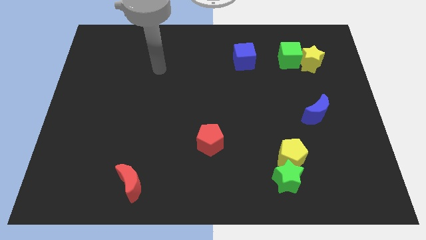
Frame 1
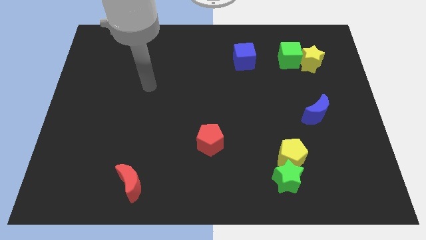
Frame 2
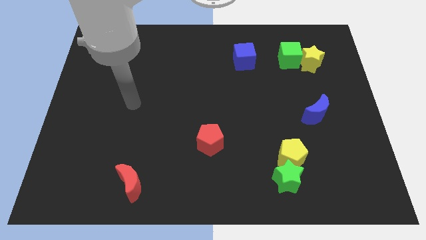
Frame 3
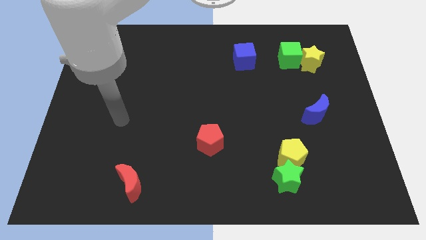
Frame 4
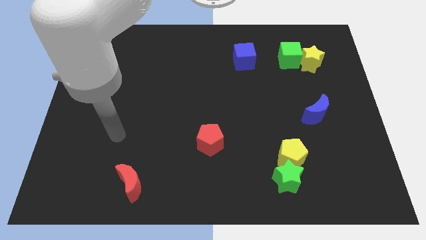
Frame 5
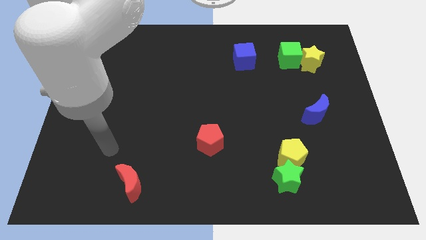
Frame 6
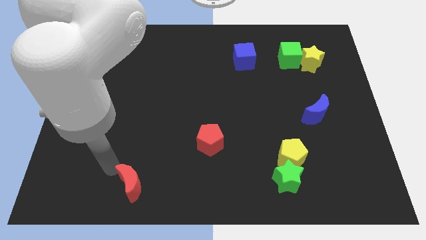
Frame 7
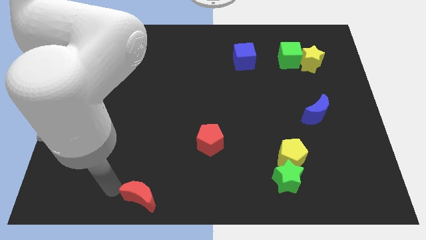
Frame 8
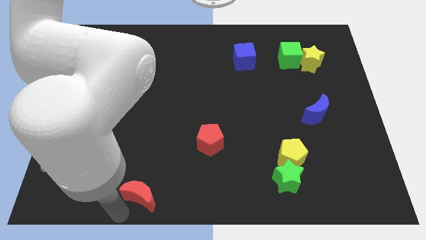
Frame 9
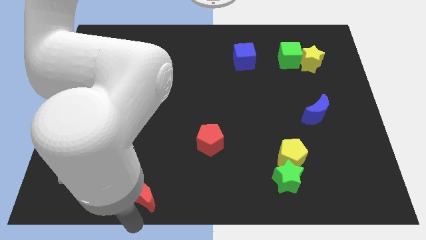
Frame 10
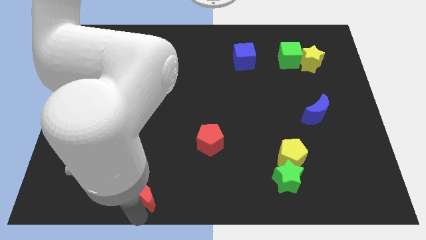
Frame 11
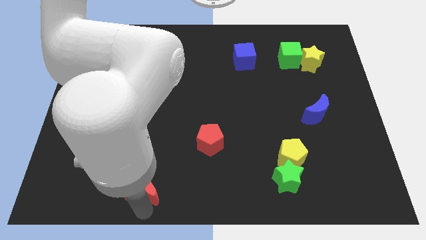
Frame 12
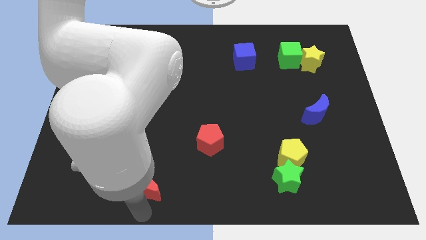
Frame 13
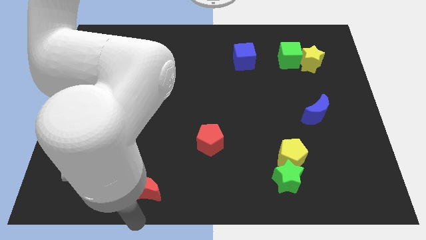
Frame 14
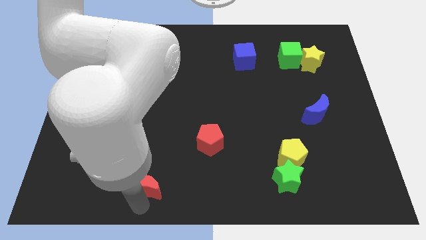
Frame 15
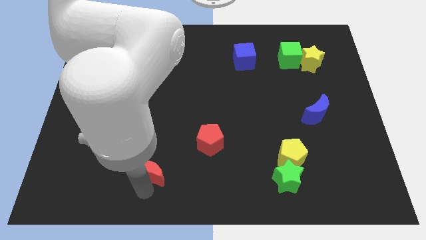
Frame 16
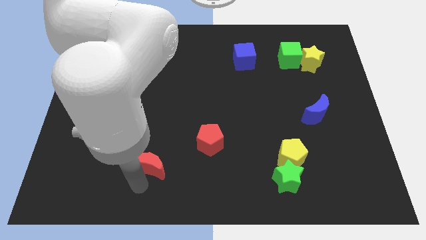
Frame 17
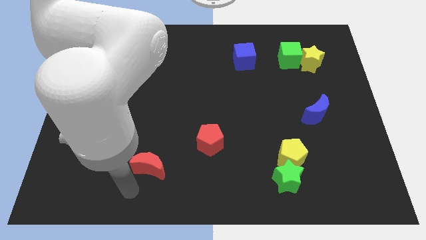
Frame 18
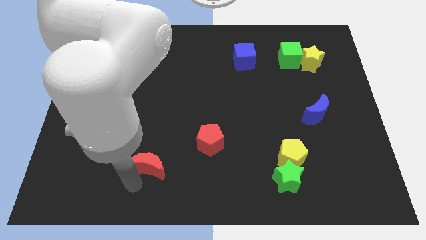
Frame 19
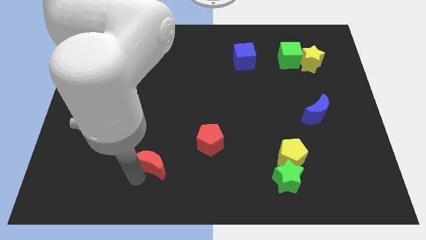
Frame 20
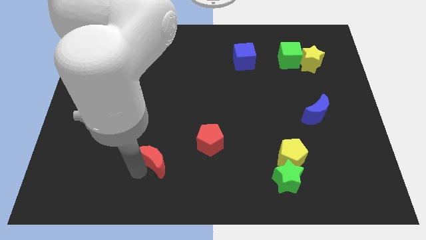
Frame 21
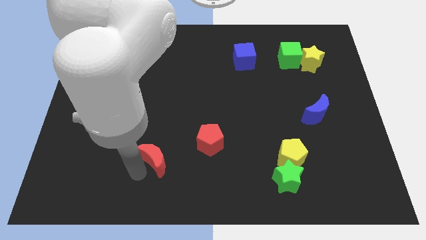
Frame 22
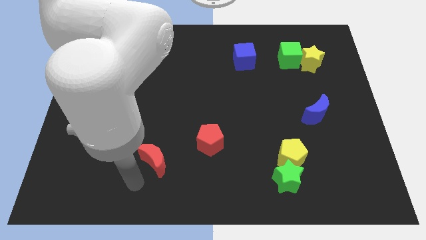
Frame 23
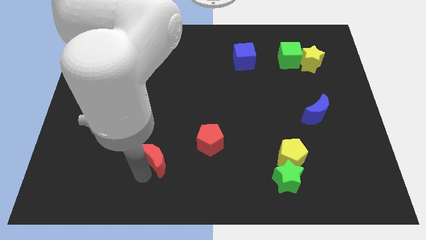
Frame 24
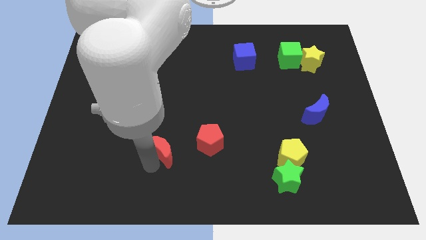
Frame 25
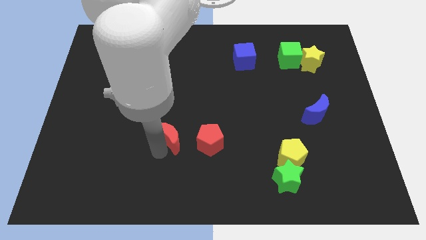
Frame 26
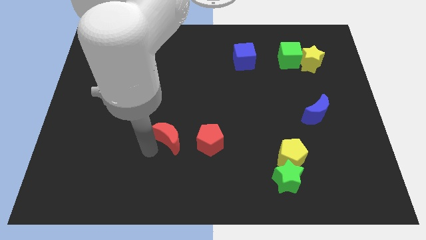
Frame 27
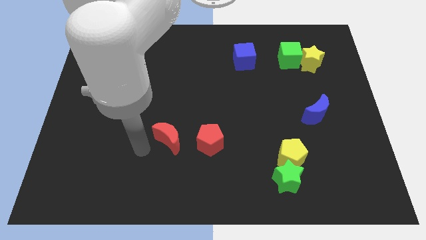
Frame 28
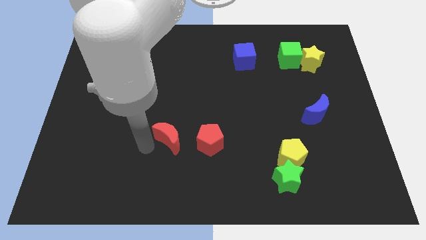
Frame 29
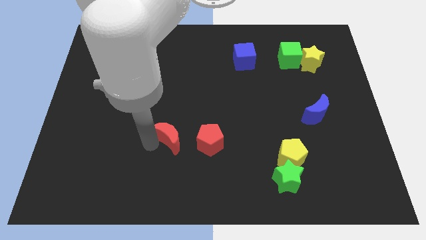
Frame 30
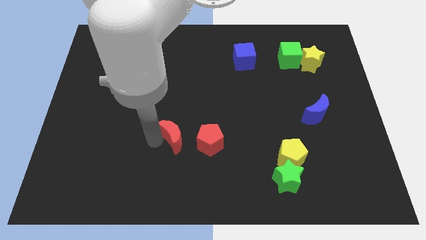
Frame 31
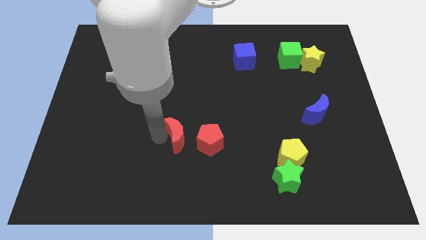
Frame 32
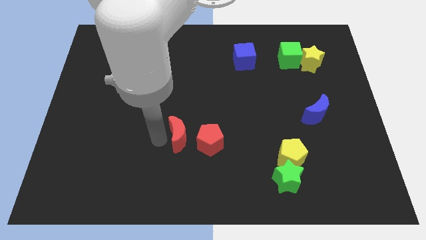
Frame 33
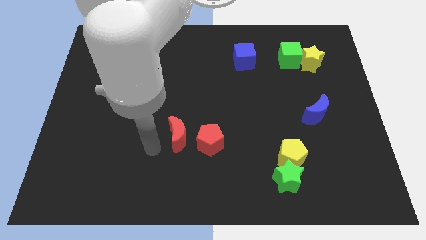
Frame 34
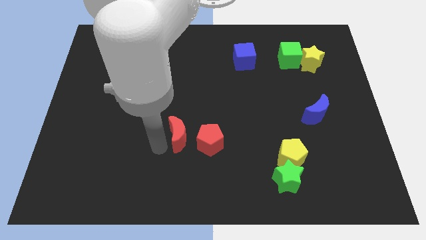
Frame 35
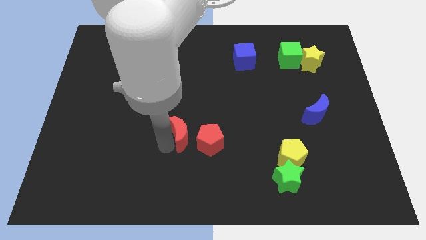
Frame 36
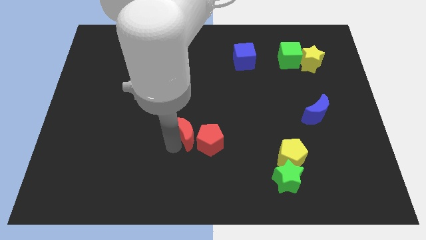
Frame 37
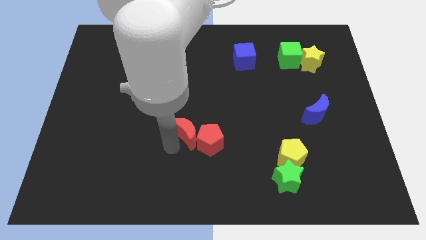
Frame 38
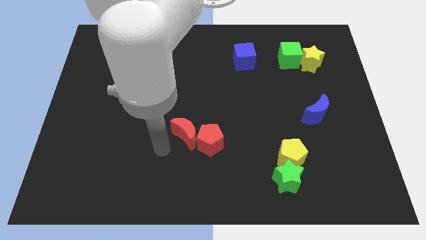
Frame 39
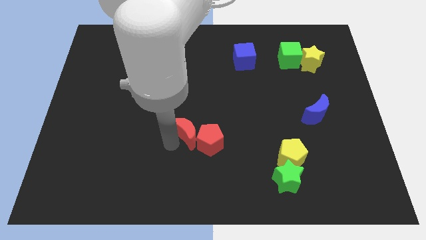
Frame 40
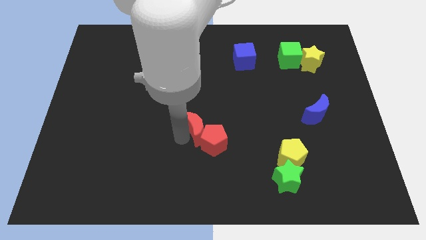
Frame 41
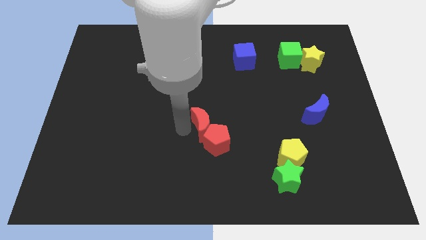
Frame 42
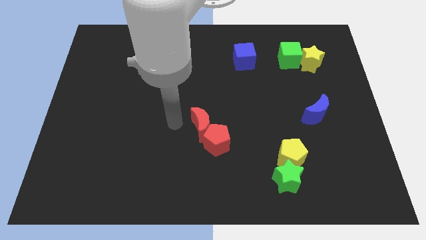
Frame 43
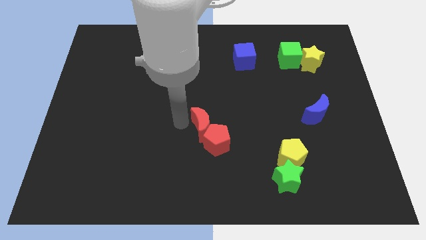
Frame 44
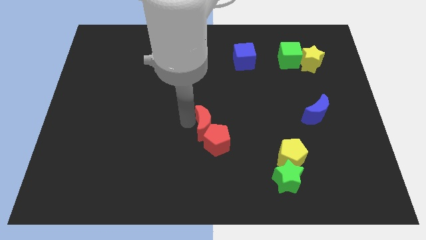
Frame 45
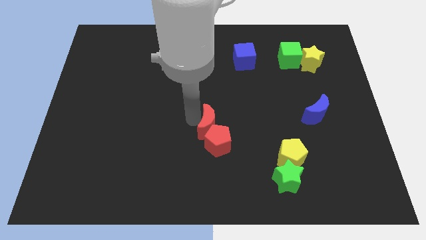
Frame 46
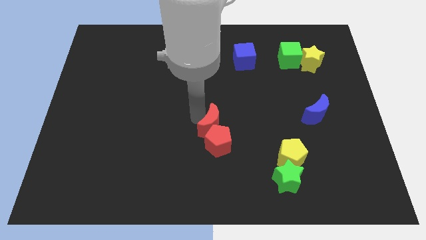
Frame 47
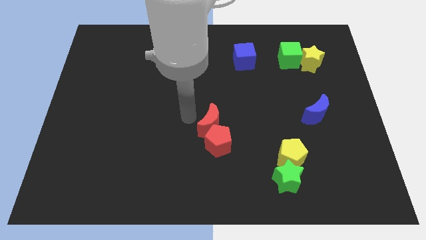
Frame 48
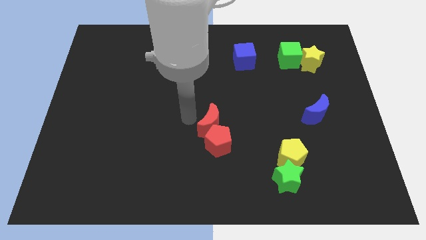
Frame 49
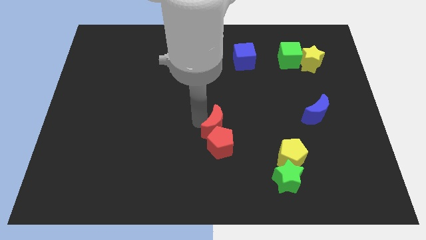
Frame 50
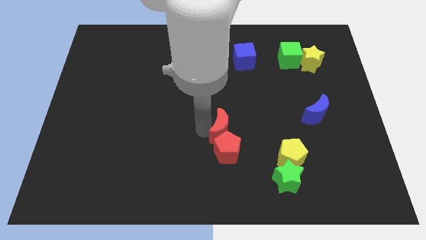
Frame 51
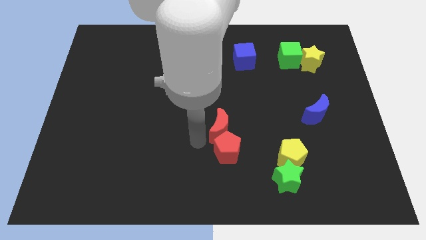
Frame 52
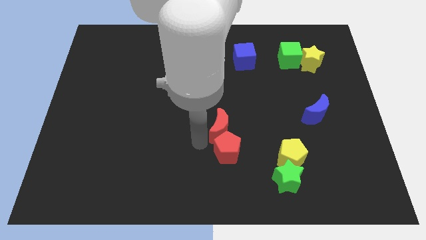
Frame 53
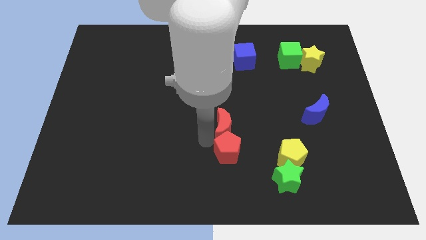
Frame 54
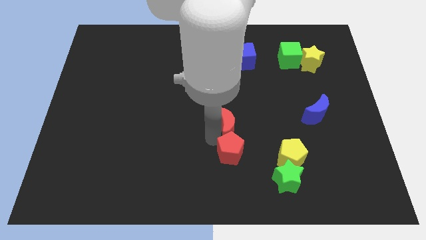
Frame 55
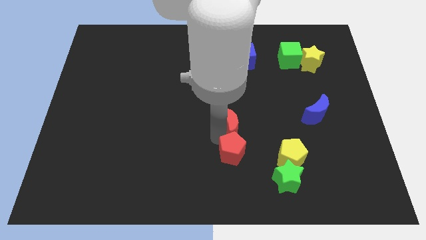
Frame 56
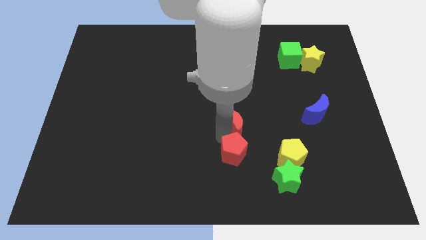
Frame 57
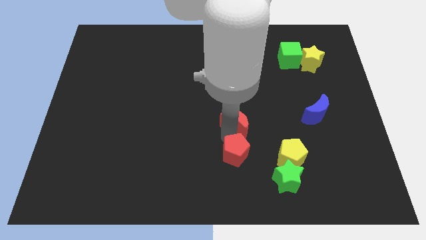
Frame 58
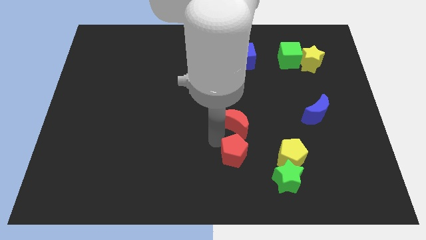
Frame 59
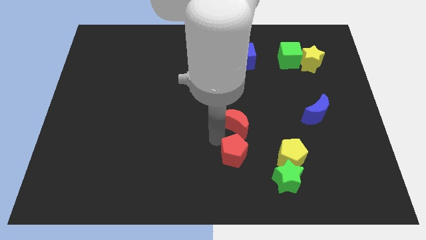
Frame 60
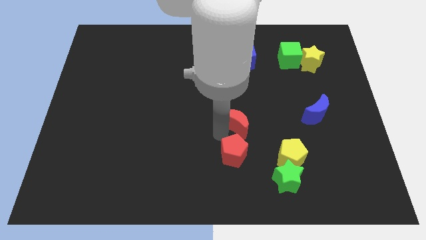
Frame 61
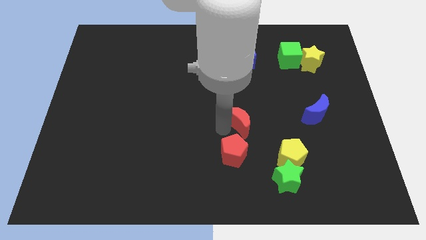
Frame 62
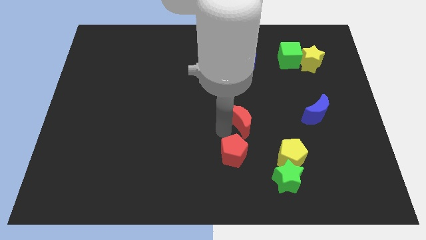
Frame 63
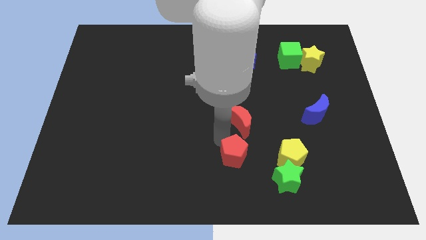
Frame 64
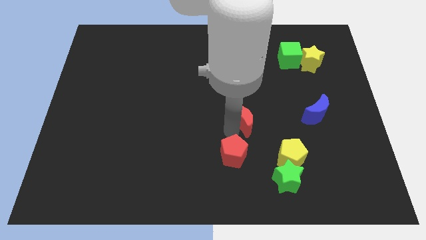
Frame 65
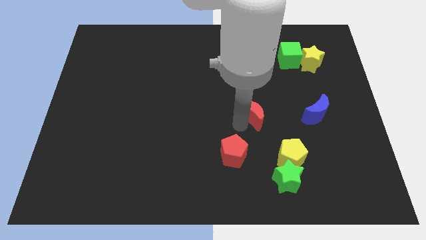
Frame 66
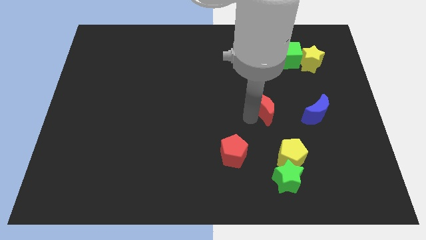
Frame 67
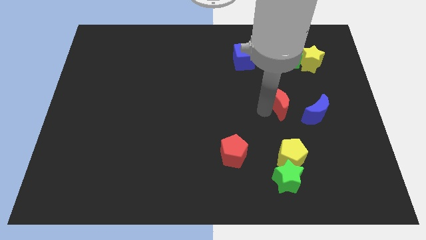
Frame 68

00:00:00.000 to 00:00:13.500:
slide the red moon to the top left side of the blue moon

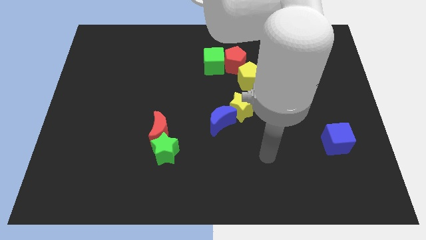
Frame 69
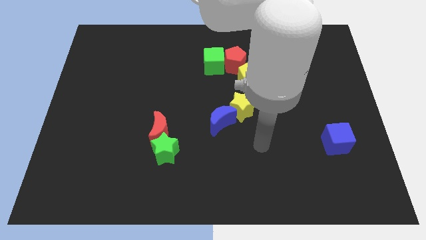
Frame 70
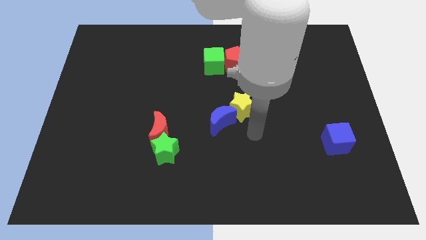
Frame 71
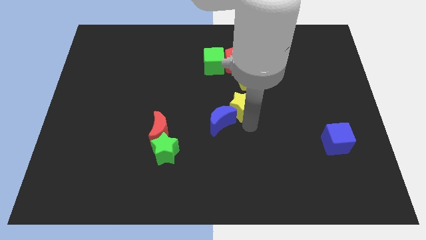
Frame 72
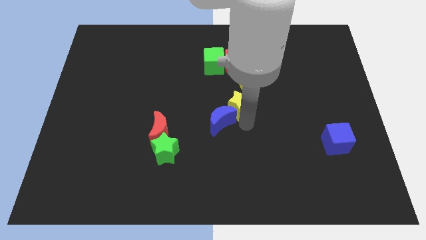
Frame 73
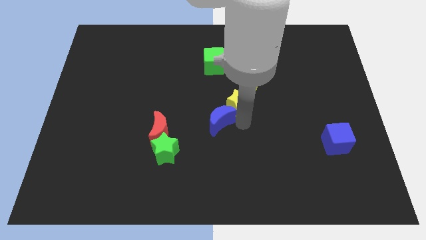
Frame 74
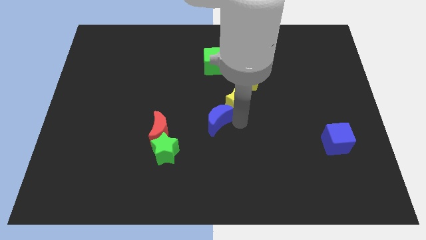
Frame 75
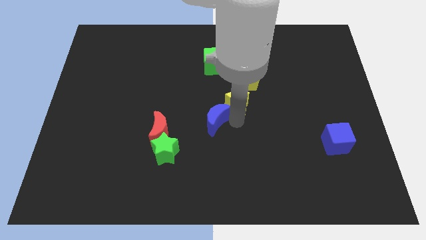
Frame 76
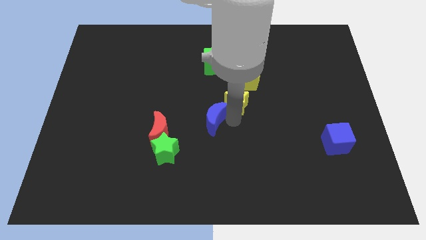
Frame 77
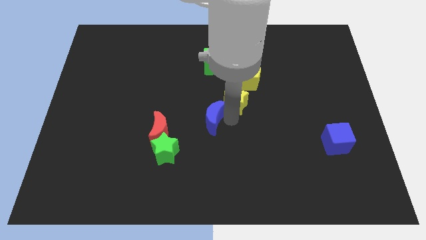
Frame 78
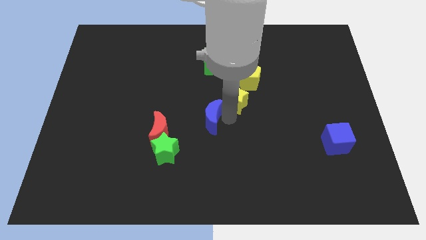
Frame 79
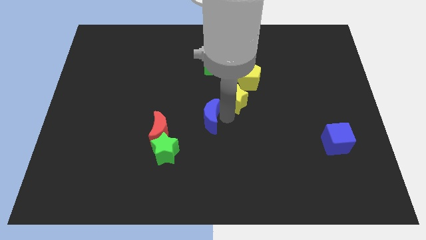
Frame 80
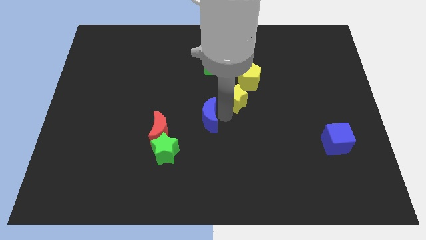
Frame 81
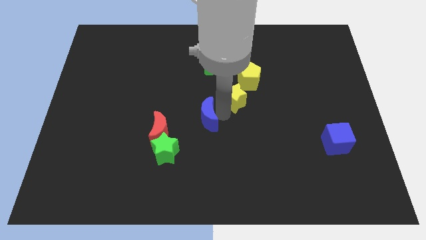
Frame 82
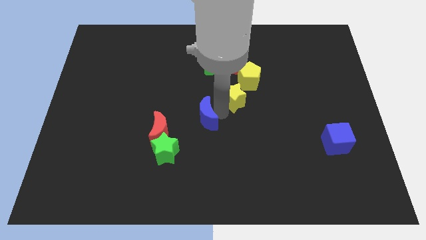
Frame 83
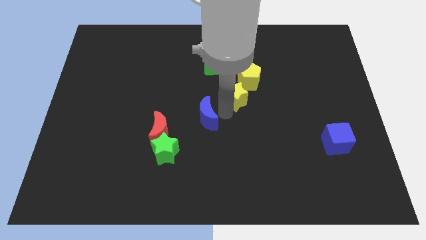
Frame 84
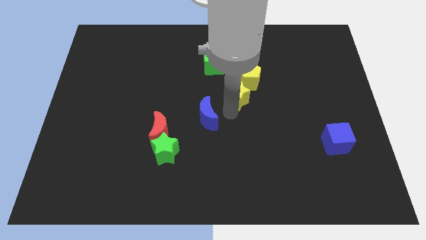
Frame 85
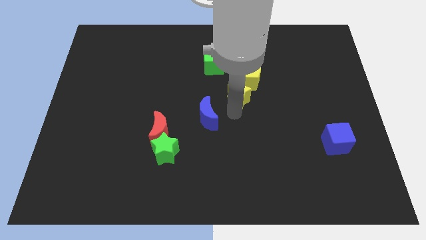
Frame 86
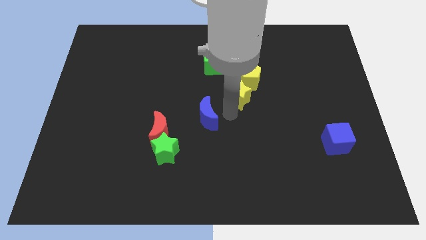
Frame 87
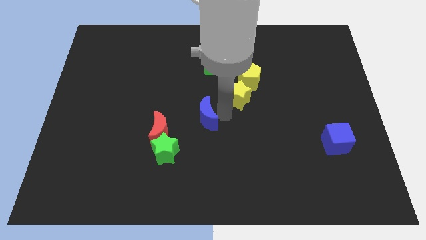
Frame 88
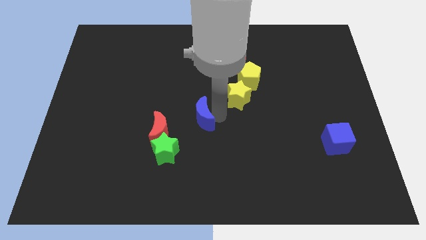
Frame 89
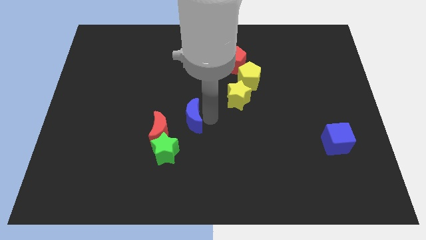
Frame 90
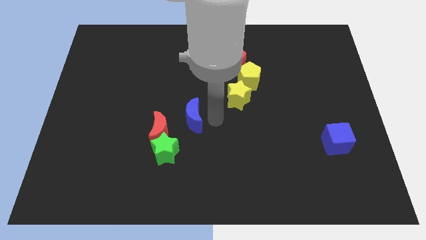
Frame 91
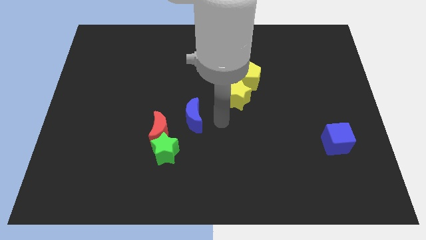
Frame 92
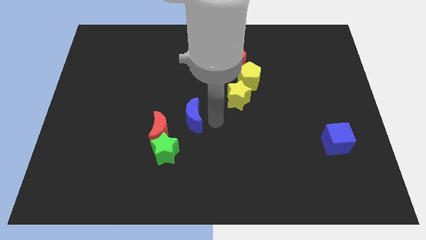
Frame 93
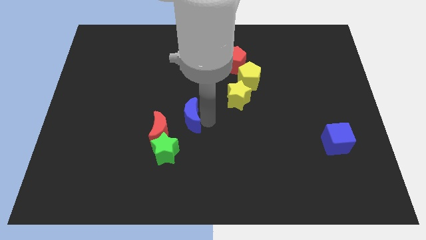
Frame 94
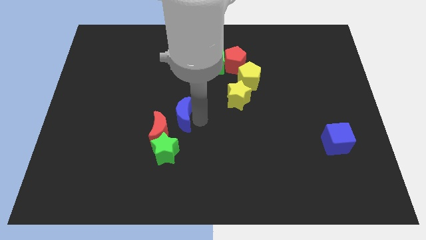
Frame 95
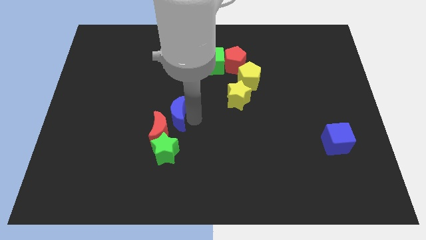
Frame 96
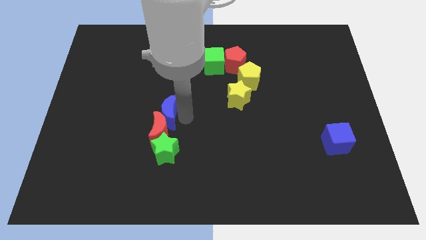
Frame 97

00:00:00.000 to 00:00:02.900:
slide the blue moon to the top left side of the red moon
